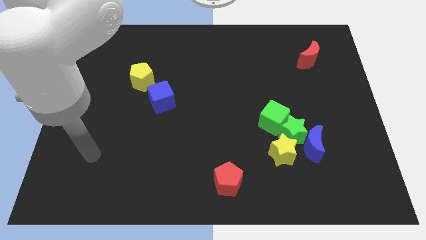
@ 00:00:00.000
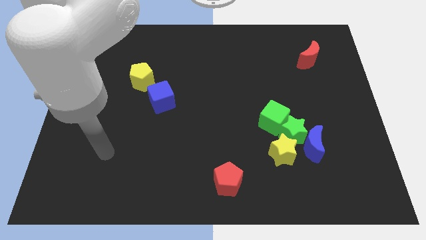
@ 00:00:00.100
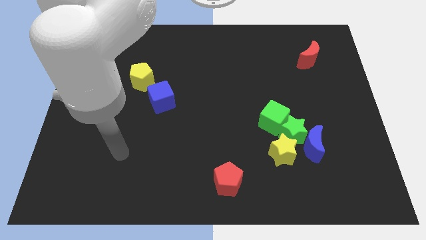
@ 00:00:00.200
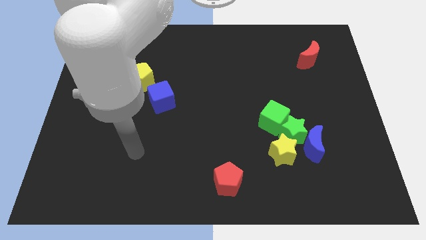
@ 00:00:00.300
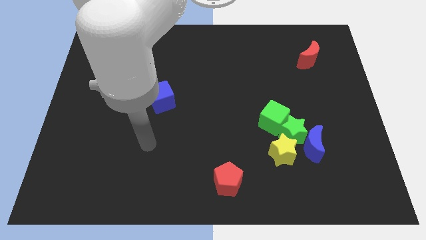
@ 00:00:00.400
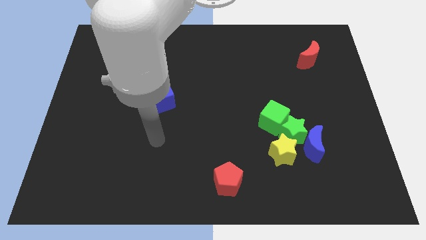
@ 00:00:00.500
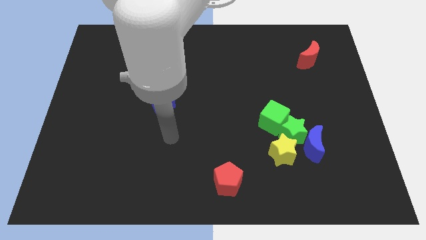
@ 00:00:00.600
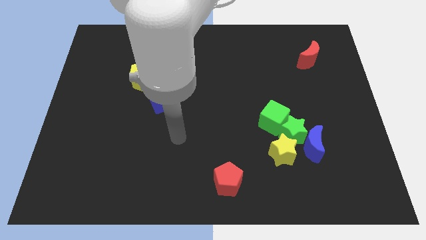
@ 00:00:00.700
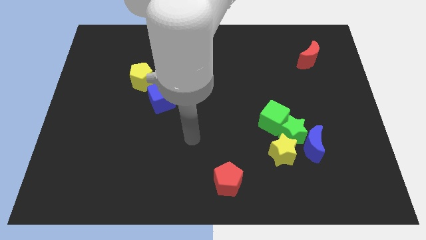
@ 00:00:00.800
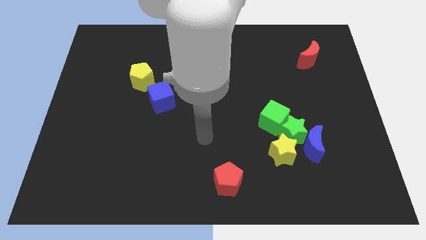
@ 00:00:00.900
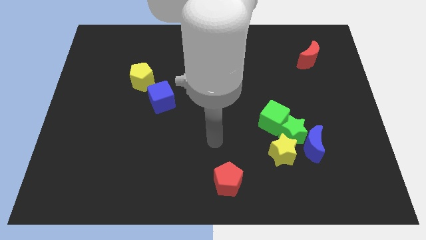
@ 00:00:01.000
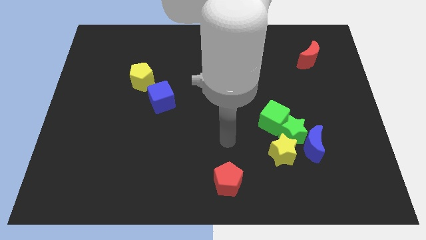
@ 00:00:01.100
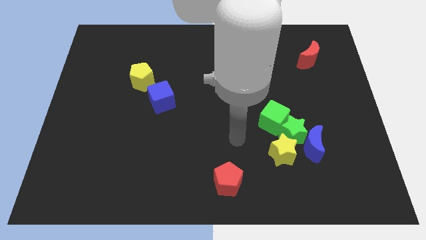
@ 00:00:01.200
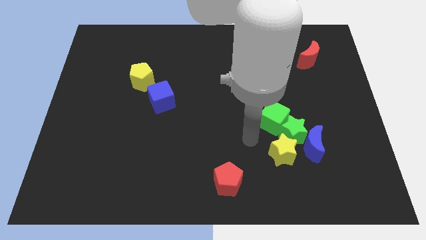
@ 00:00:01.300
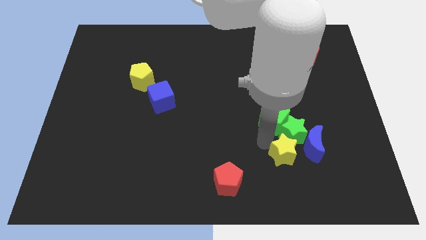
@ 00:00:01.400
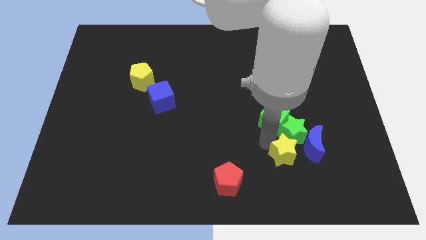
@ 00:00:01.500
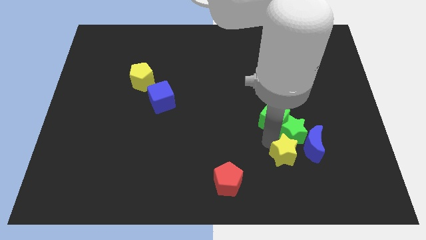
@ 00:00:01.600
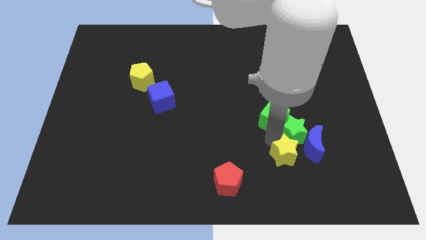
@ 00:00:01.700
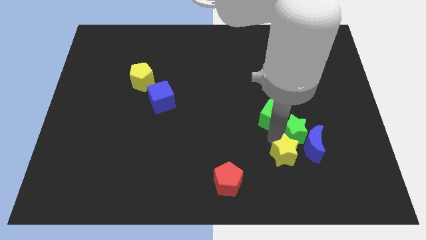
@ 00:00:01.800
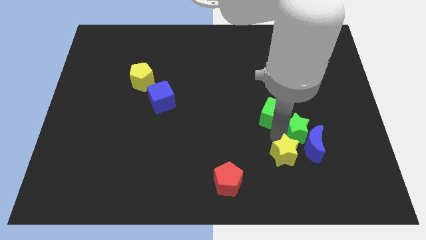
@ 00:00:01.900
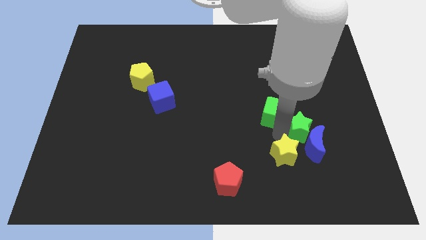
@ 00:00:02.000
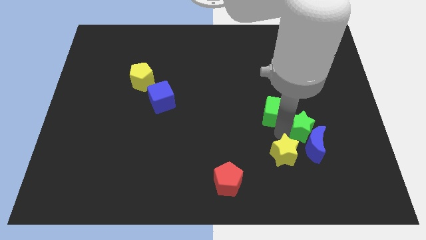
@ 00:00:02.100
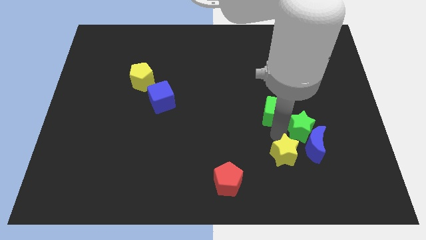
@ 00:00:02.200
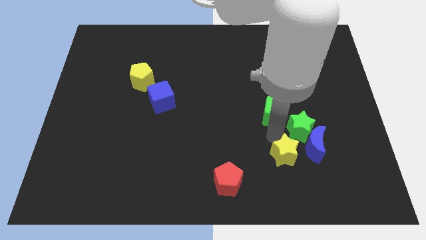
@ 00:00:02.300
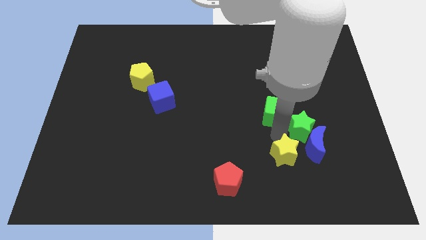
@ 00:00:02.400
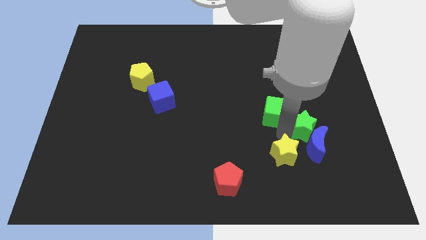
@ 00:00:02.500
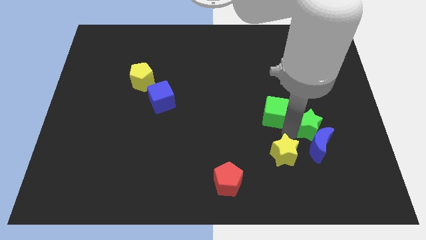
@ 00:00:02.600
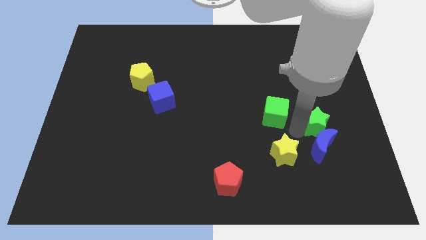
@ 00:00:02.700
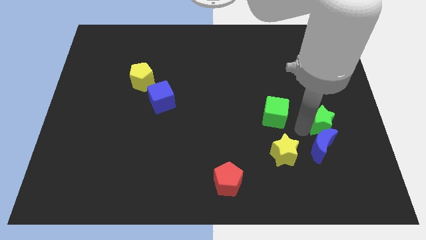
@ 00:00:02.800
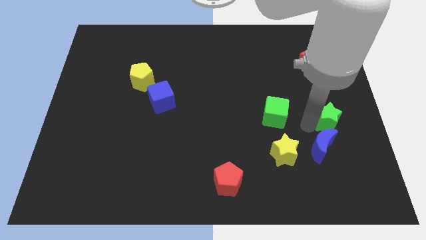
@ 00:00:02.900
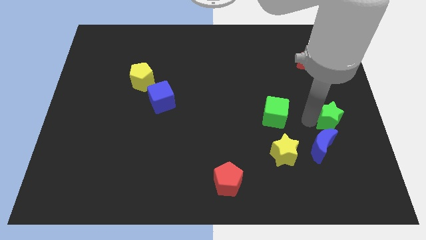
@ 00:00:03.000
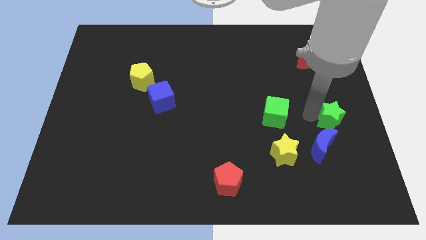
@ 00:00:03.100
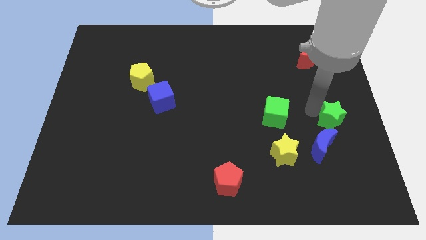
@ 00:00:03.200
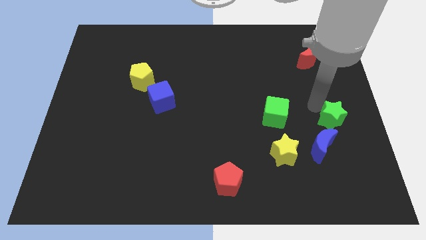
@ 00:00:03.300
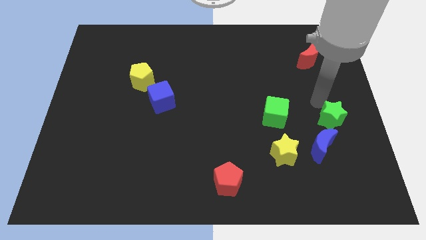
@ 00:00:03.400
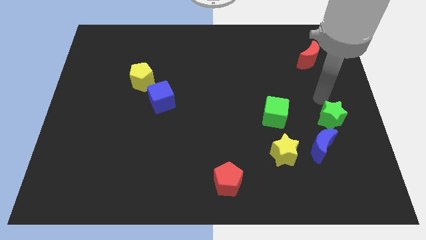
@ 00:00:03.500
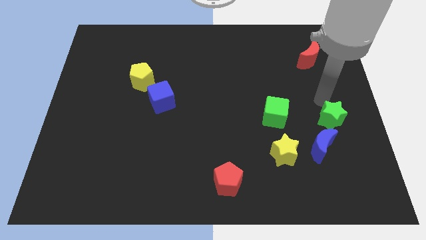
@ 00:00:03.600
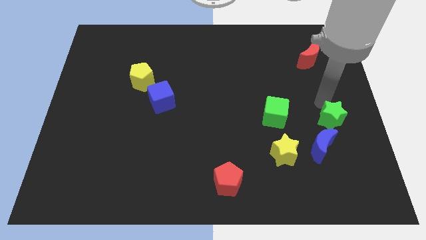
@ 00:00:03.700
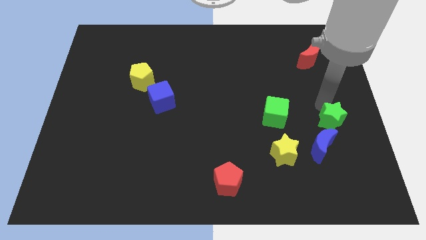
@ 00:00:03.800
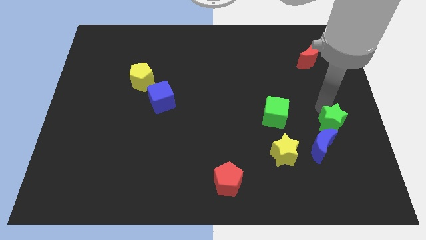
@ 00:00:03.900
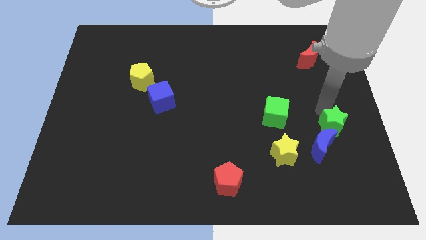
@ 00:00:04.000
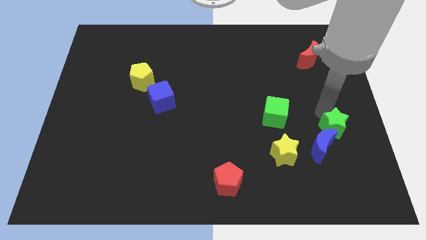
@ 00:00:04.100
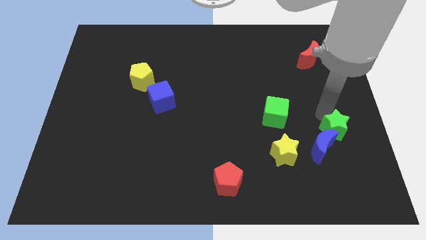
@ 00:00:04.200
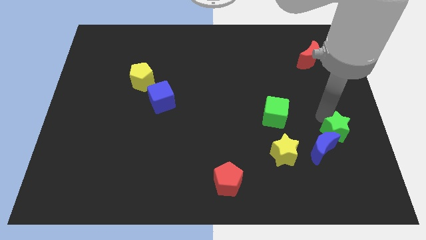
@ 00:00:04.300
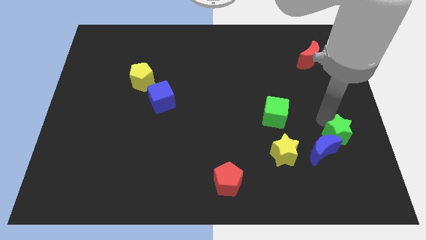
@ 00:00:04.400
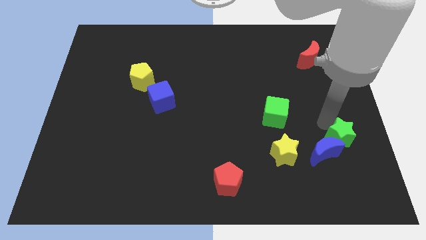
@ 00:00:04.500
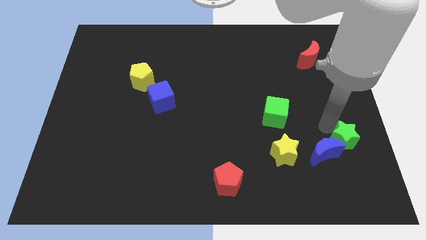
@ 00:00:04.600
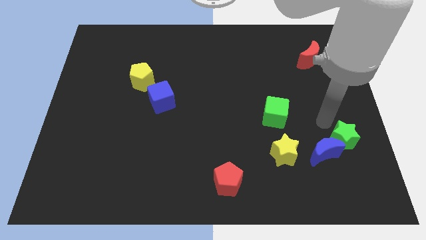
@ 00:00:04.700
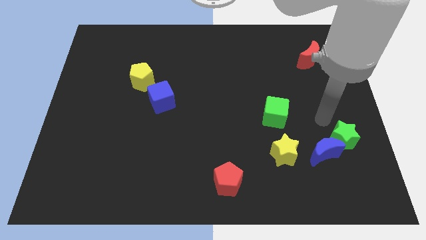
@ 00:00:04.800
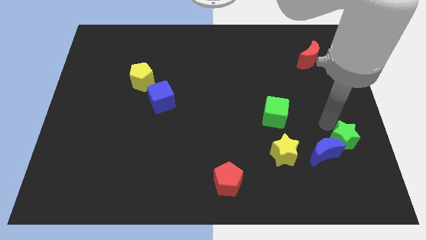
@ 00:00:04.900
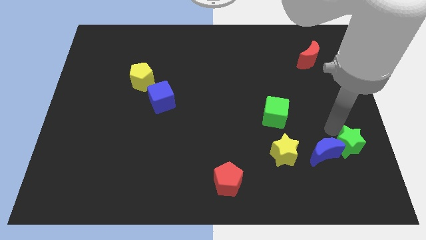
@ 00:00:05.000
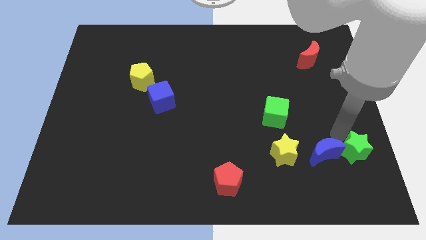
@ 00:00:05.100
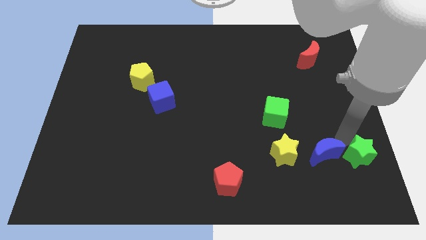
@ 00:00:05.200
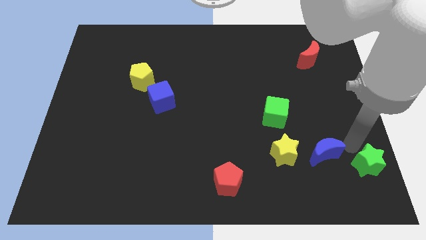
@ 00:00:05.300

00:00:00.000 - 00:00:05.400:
put the green star to the lower right corner

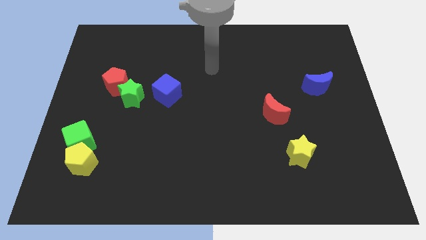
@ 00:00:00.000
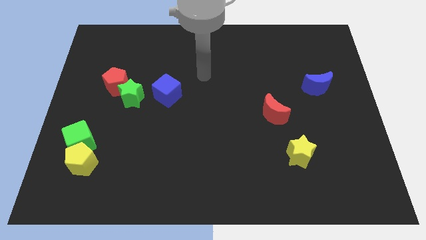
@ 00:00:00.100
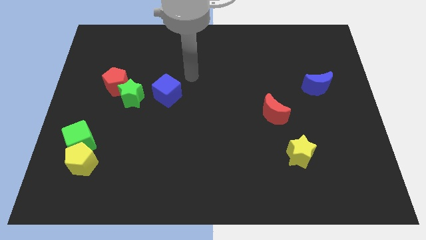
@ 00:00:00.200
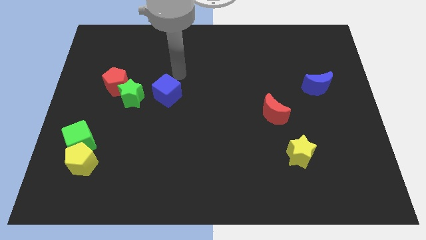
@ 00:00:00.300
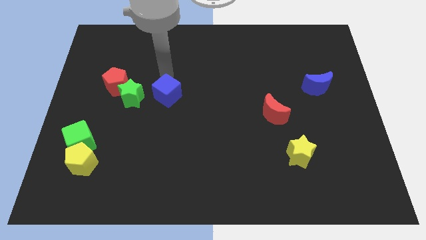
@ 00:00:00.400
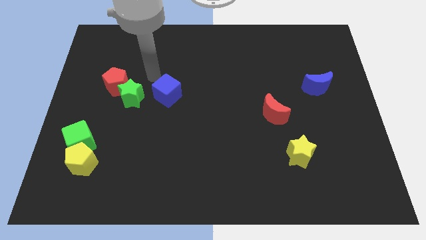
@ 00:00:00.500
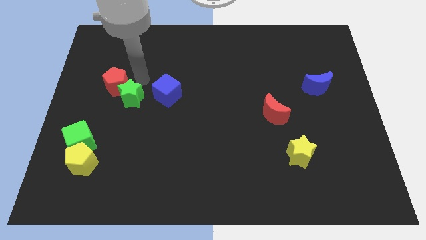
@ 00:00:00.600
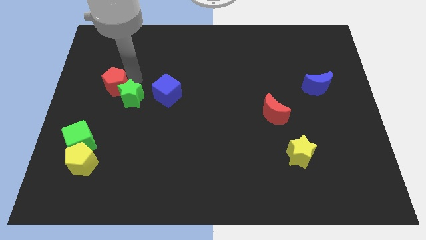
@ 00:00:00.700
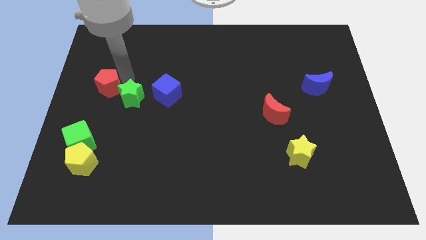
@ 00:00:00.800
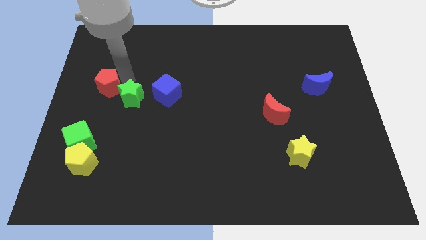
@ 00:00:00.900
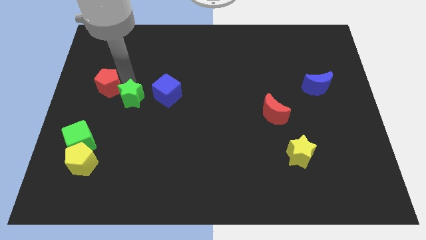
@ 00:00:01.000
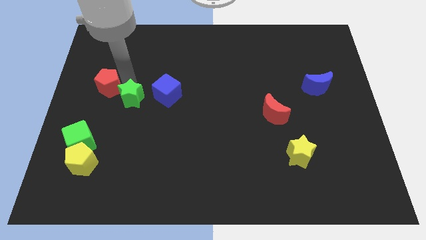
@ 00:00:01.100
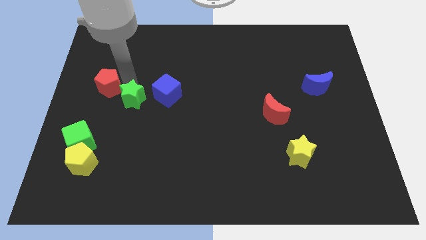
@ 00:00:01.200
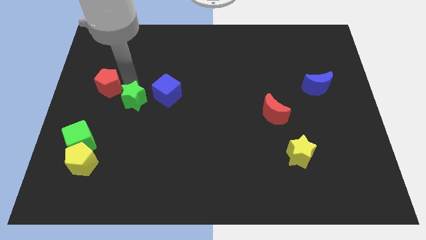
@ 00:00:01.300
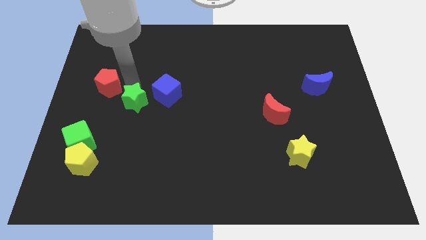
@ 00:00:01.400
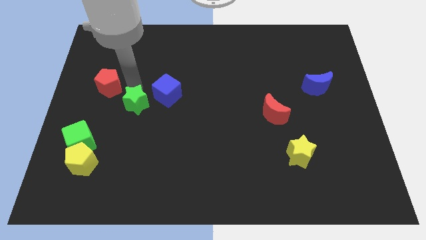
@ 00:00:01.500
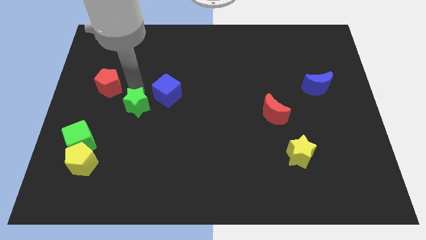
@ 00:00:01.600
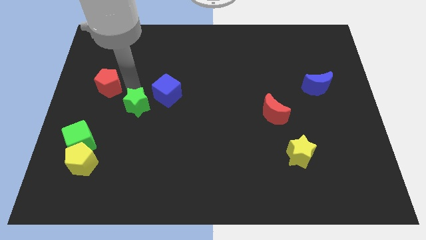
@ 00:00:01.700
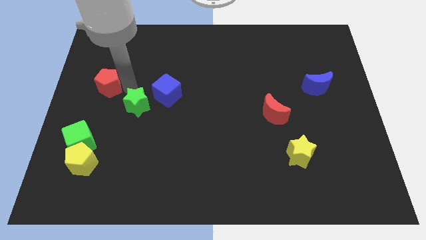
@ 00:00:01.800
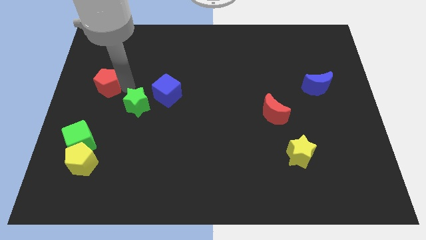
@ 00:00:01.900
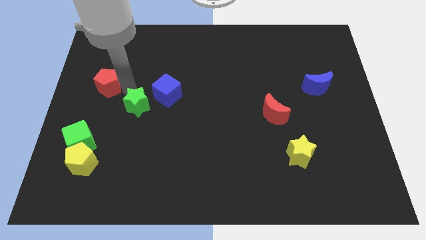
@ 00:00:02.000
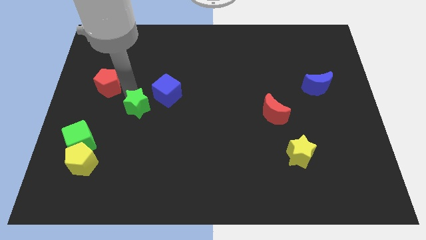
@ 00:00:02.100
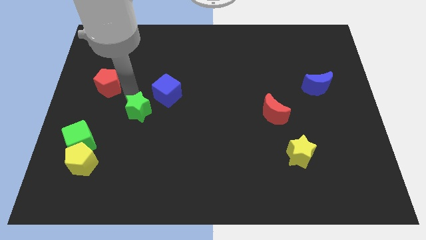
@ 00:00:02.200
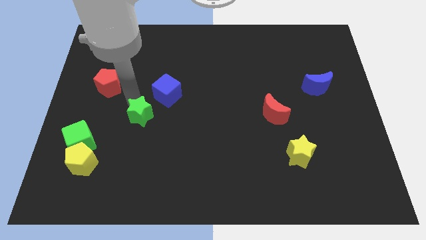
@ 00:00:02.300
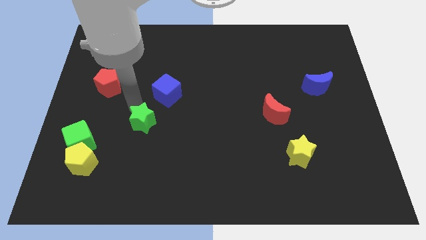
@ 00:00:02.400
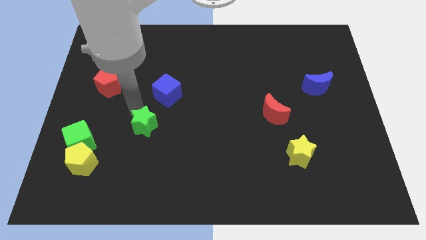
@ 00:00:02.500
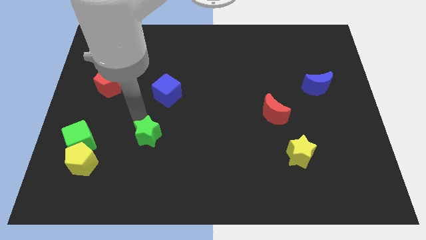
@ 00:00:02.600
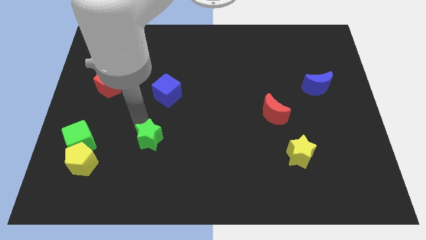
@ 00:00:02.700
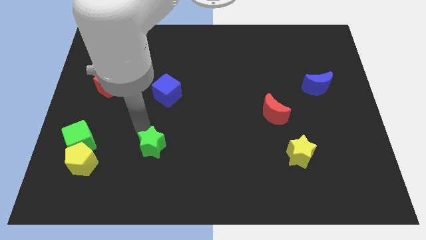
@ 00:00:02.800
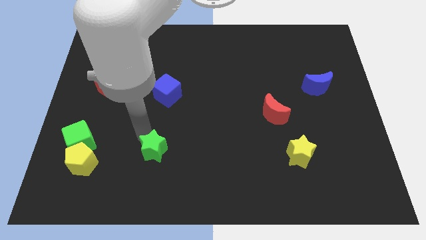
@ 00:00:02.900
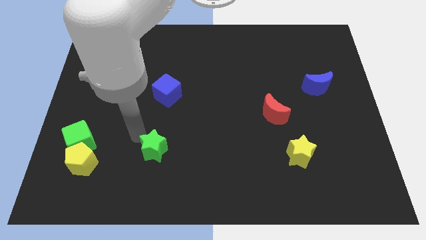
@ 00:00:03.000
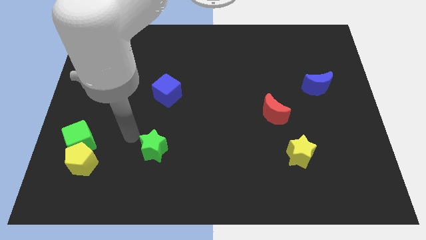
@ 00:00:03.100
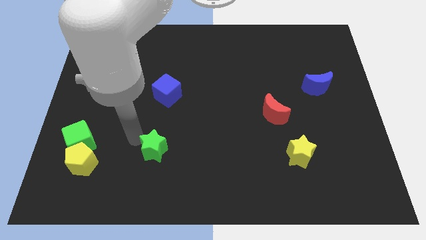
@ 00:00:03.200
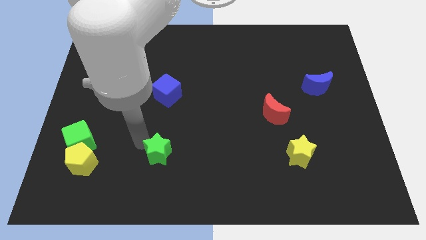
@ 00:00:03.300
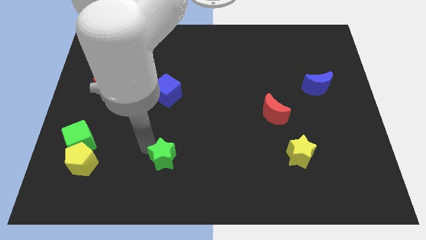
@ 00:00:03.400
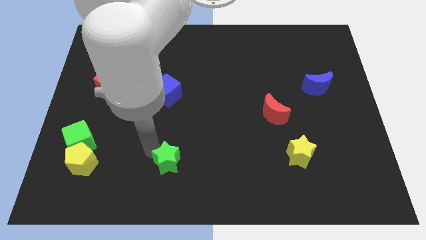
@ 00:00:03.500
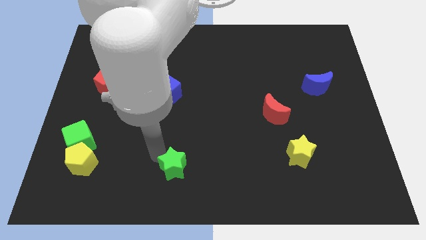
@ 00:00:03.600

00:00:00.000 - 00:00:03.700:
slide the green star to the bottom side
